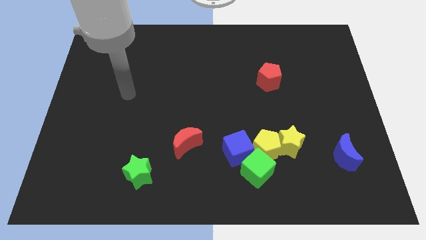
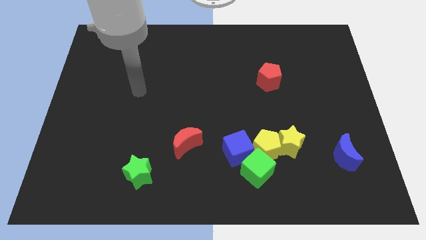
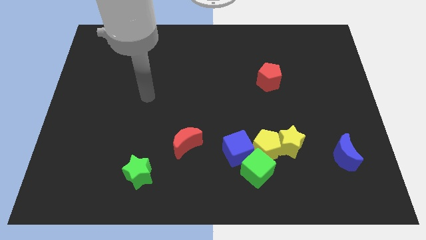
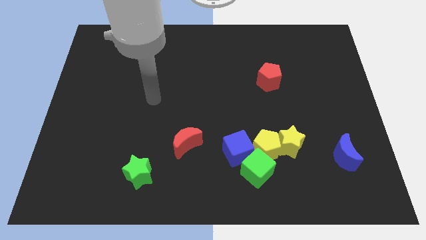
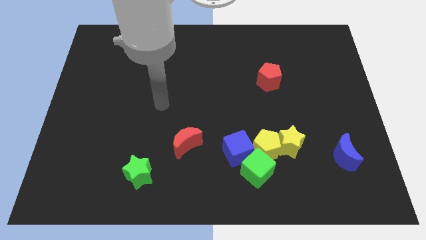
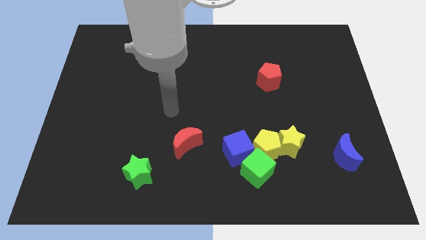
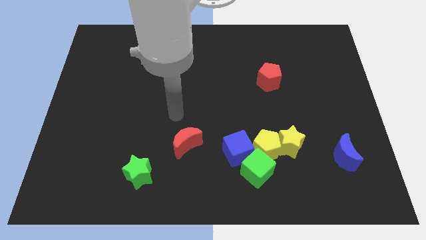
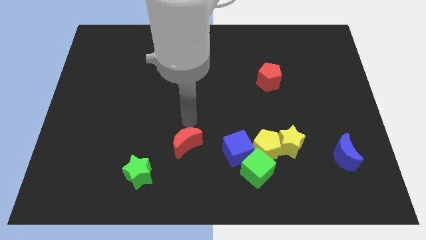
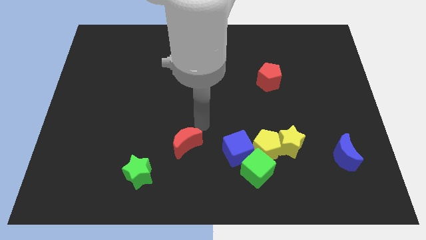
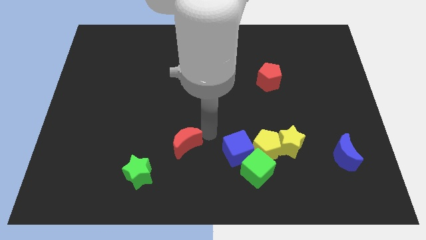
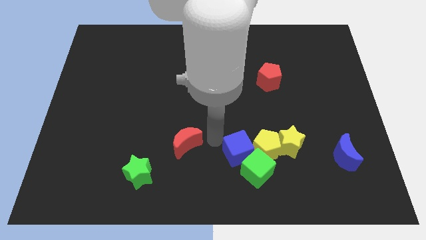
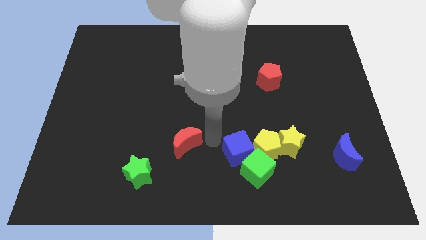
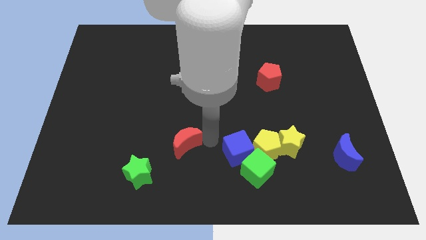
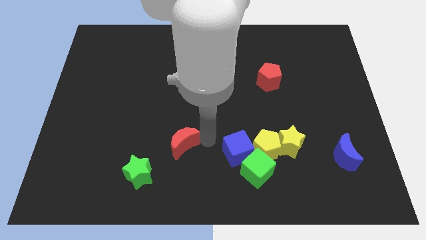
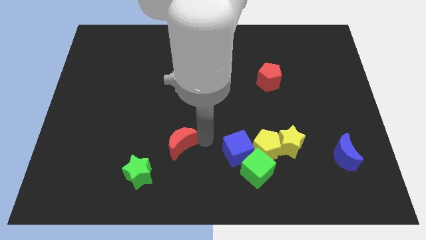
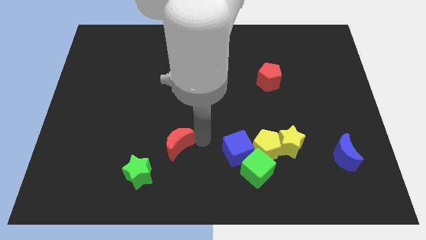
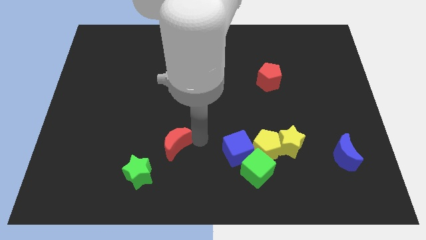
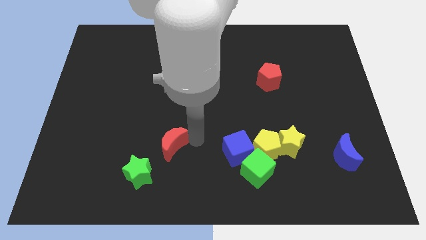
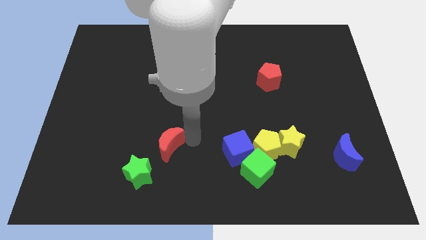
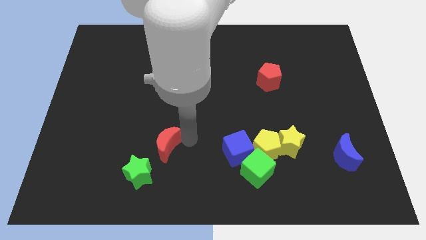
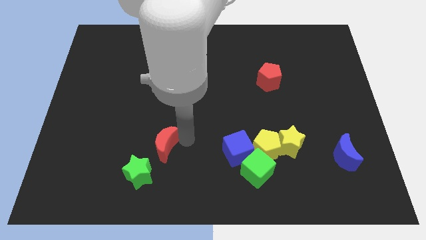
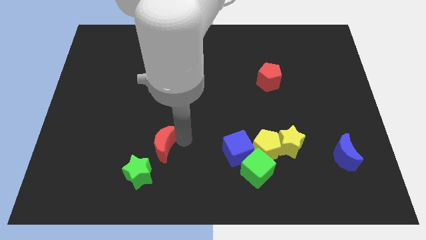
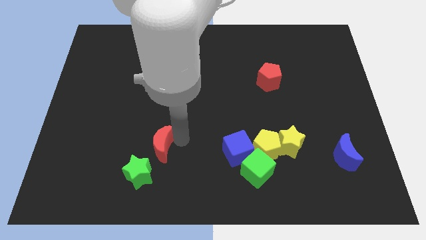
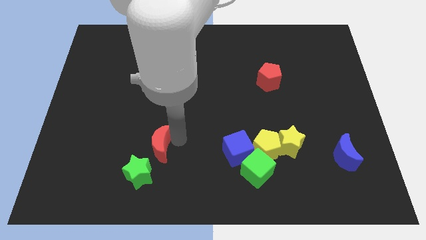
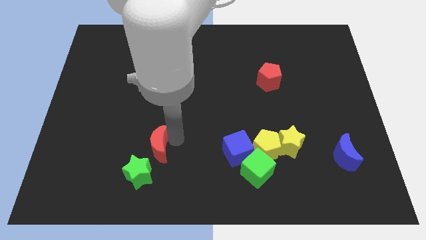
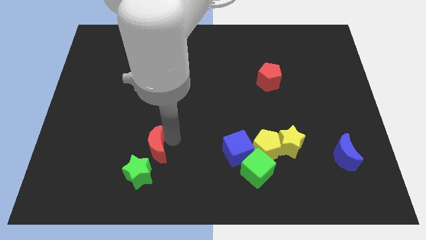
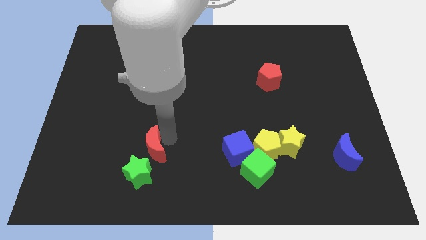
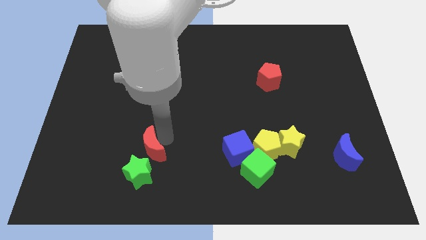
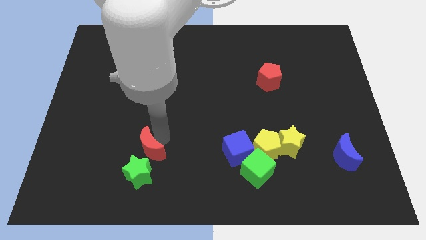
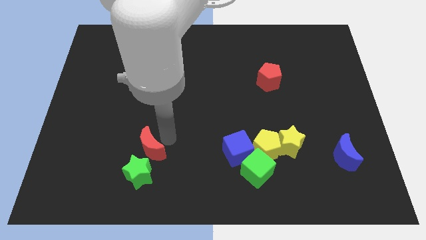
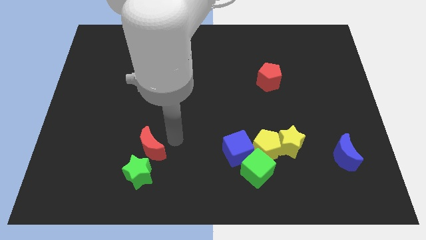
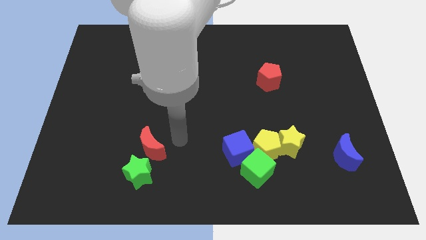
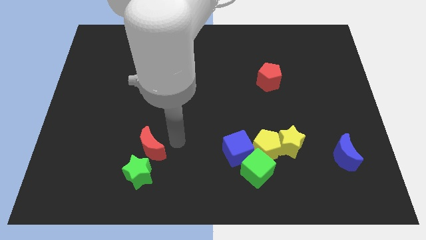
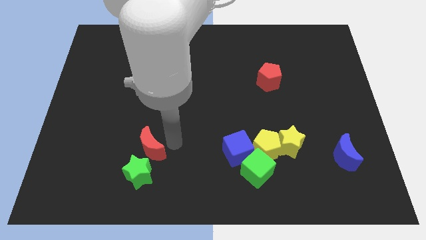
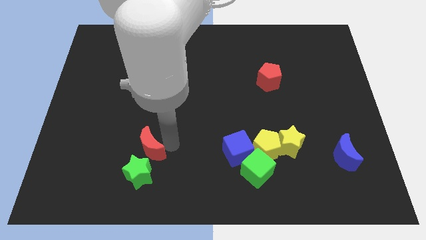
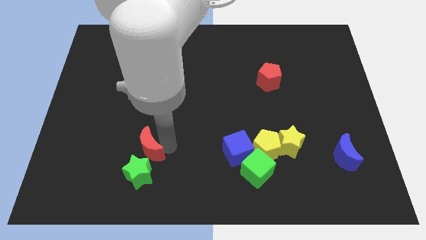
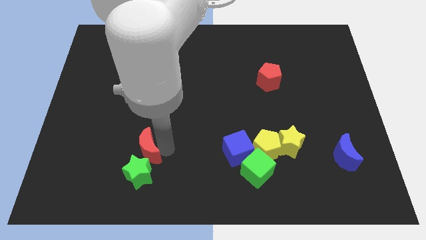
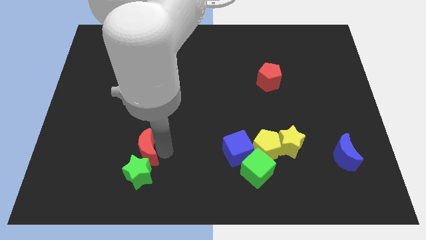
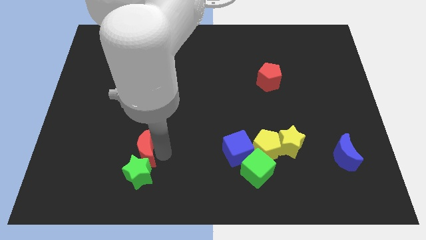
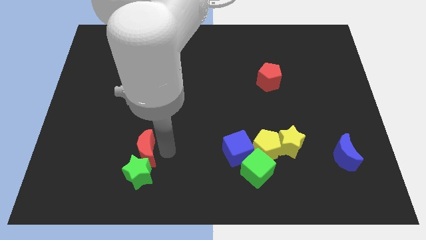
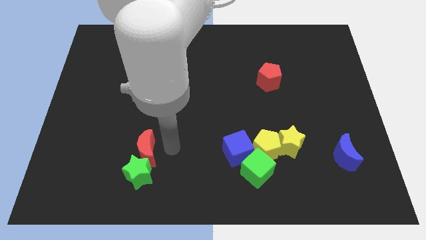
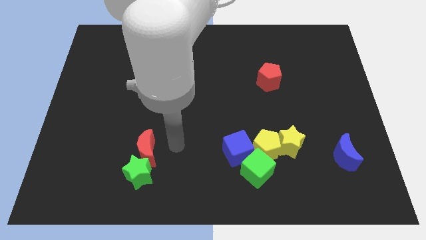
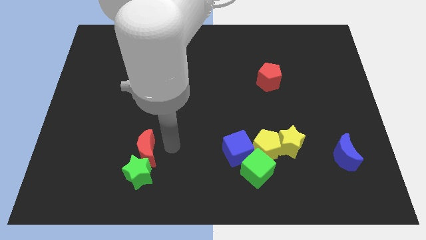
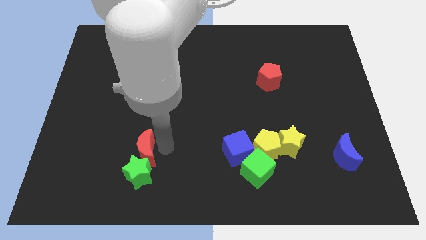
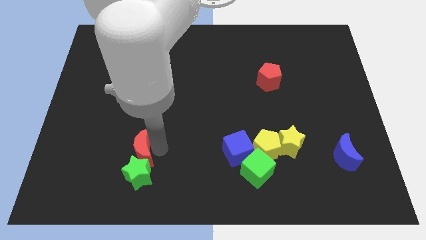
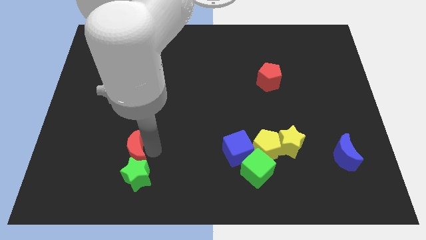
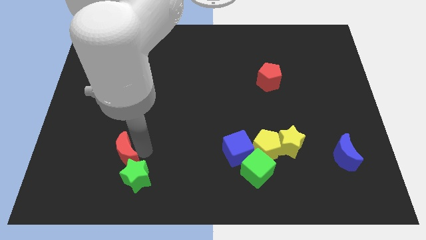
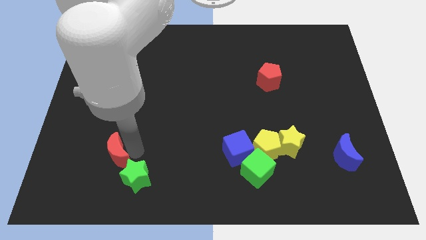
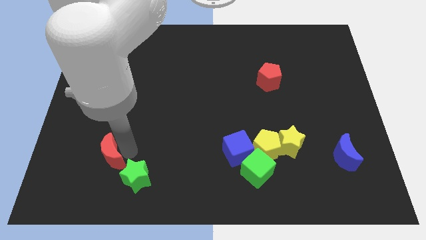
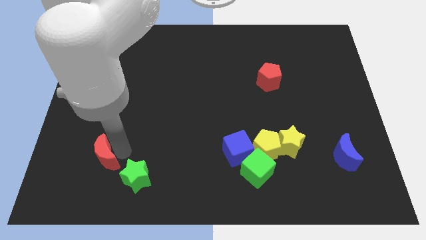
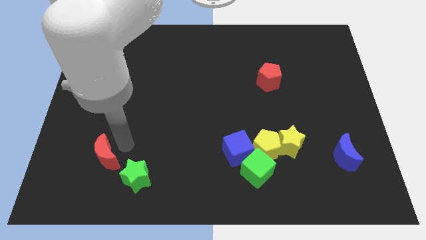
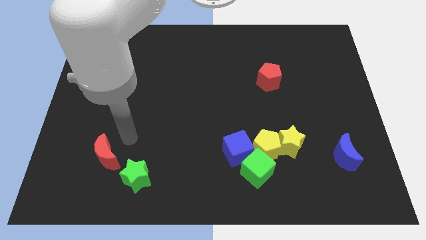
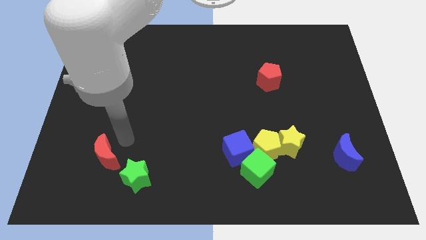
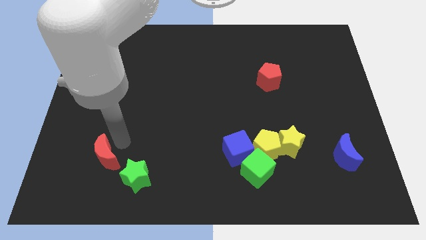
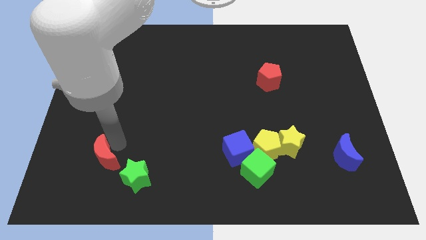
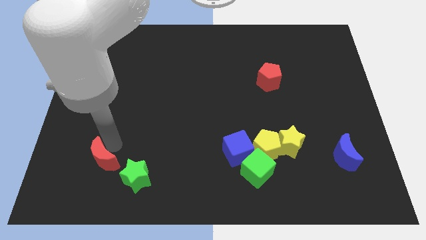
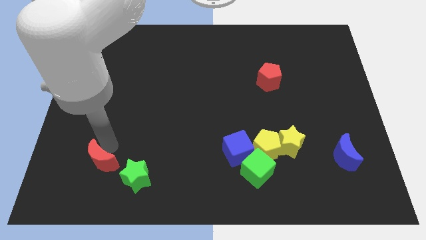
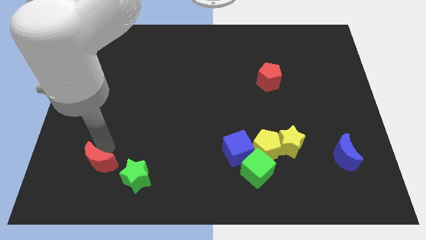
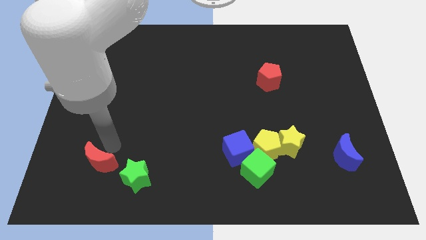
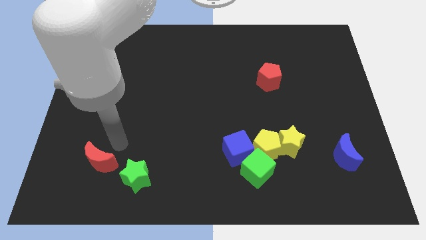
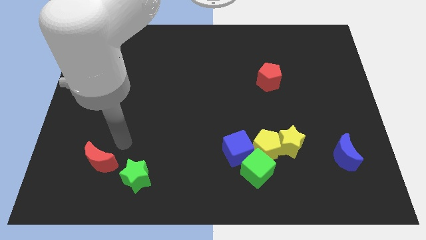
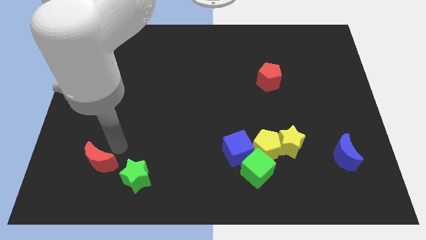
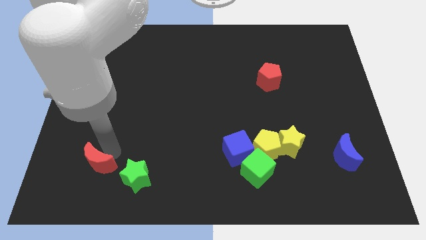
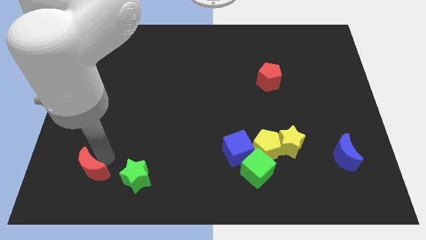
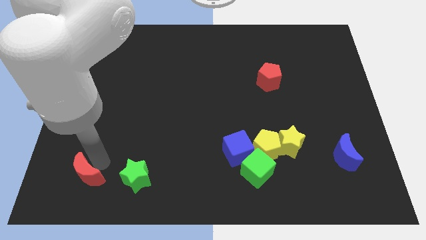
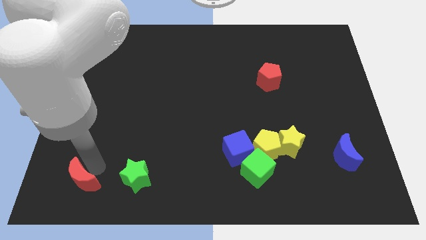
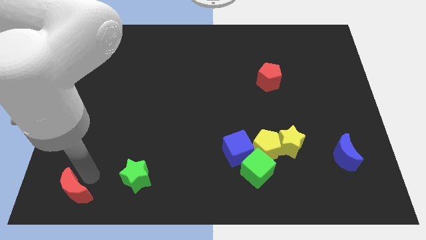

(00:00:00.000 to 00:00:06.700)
slide the red moon to the bottom left of the board

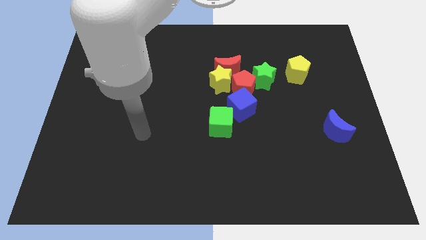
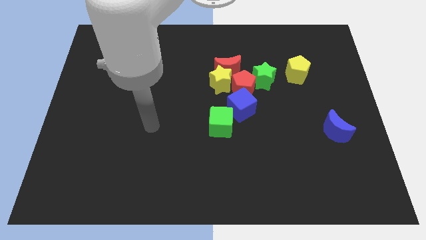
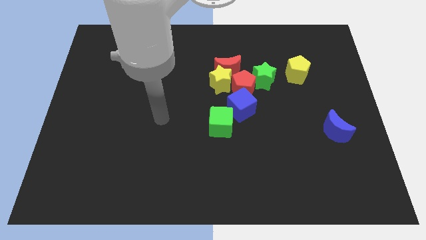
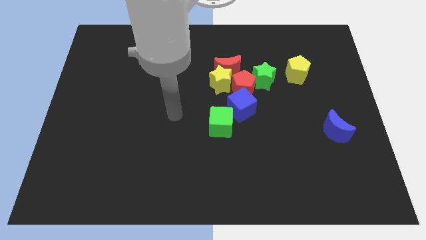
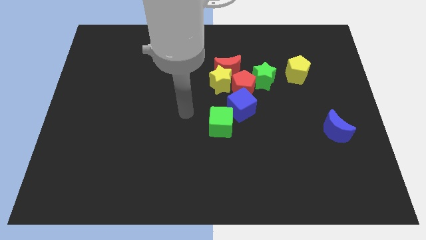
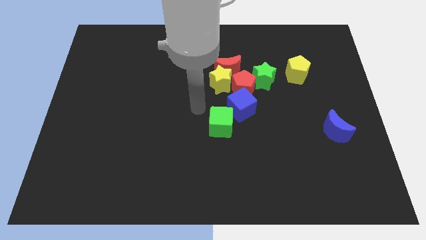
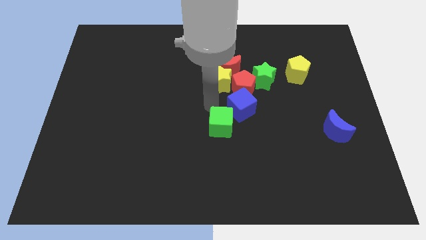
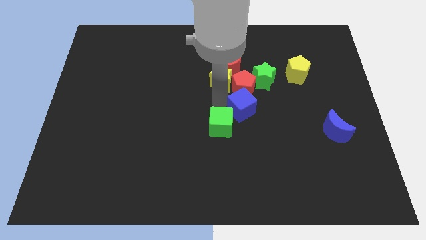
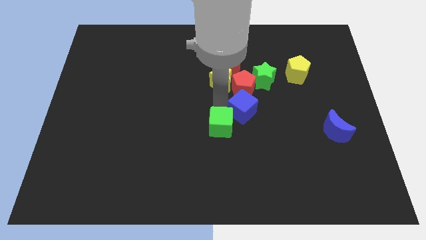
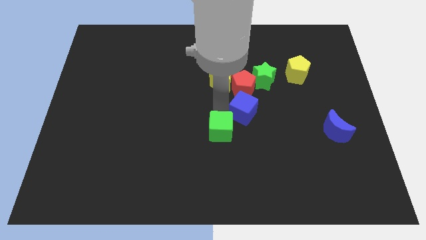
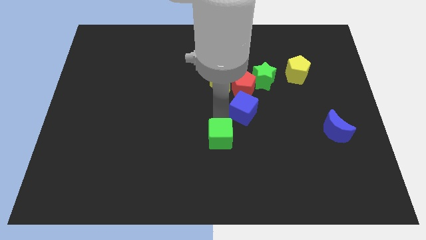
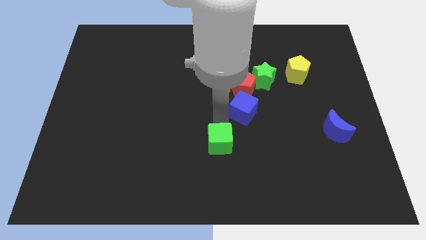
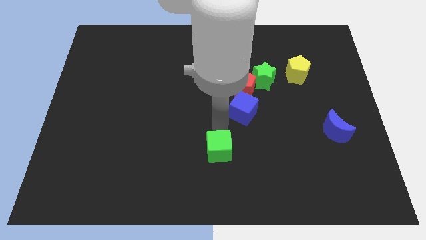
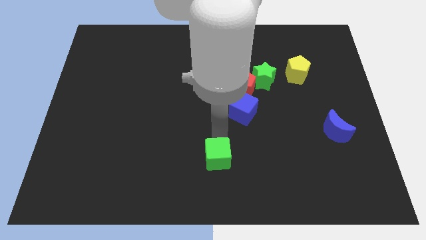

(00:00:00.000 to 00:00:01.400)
move the green cube to the bottom side
